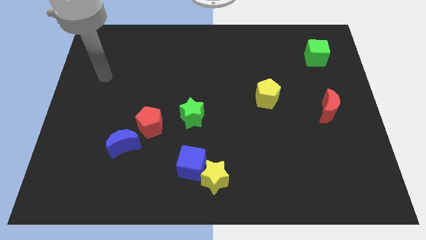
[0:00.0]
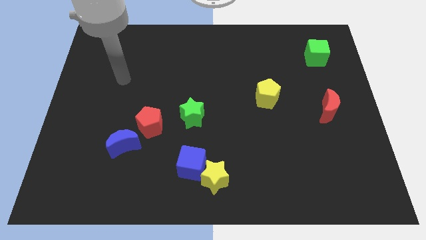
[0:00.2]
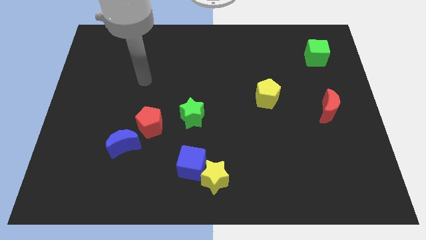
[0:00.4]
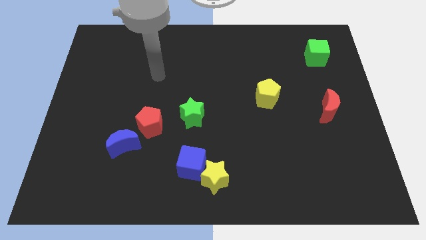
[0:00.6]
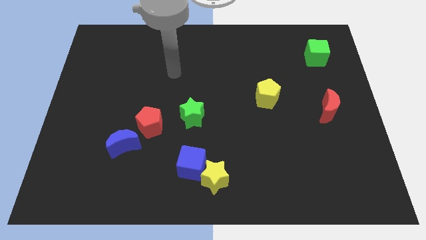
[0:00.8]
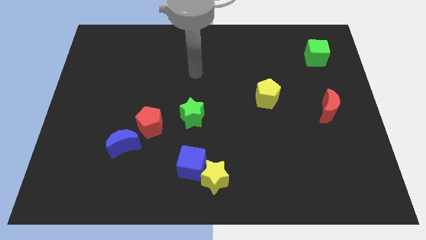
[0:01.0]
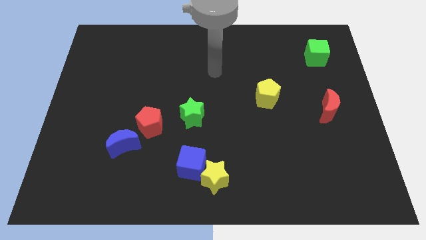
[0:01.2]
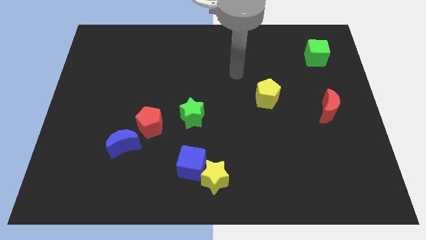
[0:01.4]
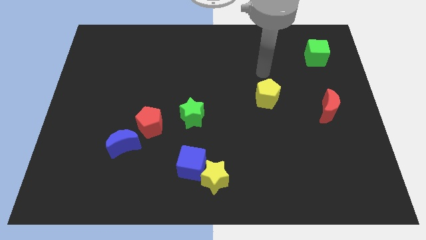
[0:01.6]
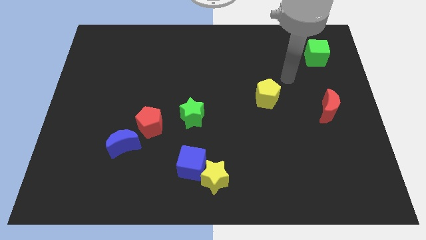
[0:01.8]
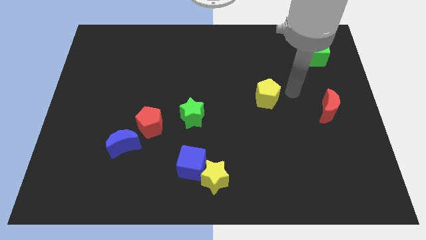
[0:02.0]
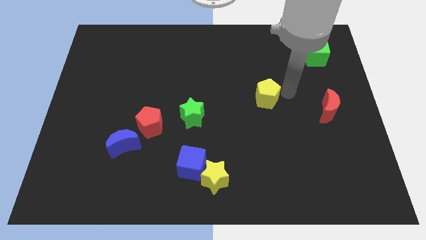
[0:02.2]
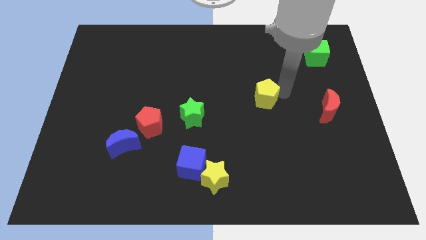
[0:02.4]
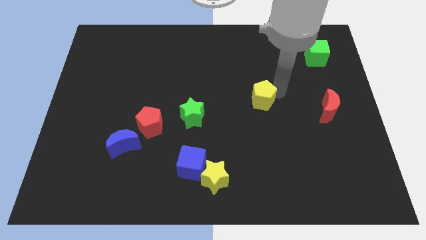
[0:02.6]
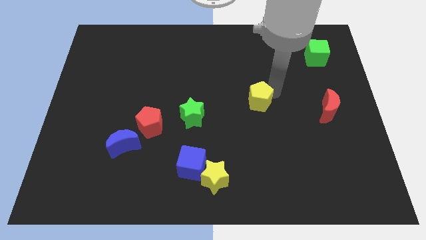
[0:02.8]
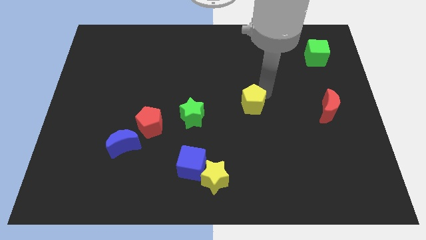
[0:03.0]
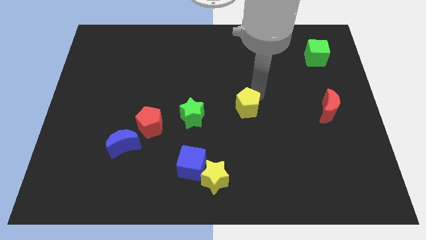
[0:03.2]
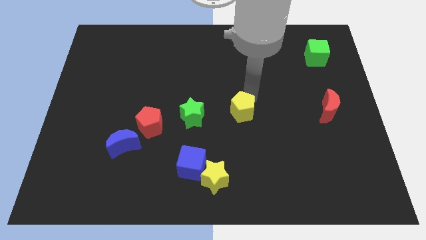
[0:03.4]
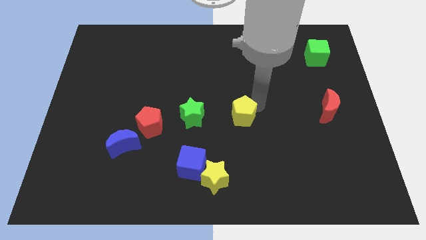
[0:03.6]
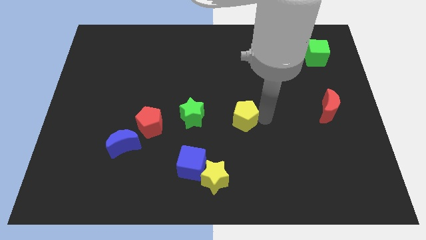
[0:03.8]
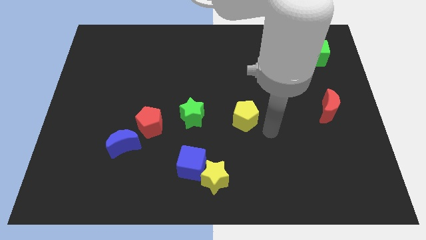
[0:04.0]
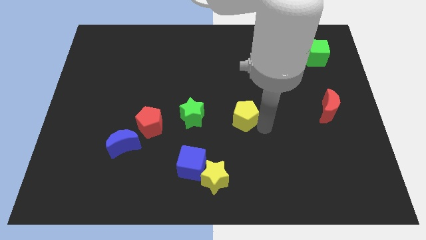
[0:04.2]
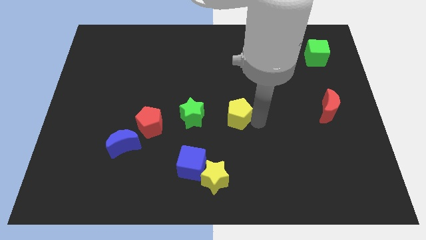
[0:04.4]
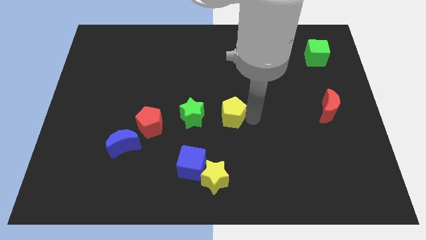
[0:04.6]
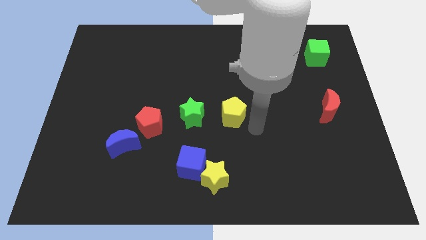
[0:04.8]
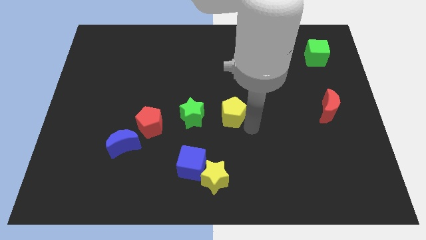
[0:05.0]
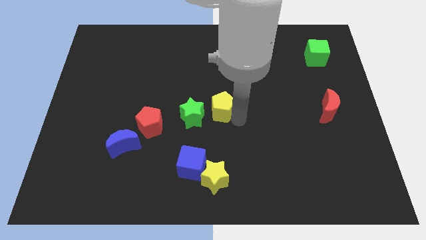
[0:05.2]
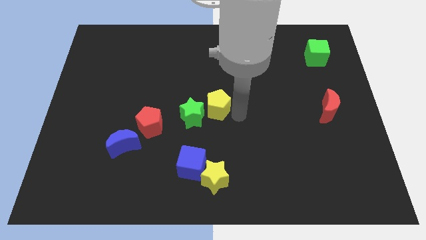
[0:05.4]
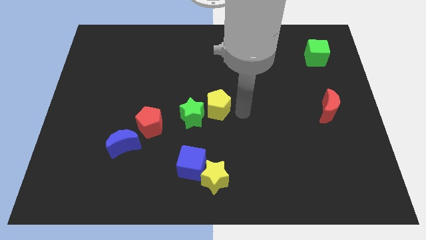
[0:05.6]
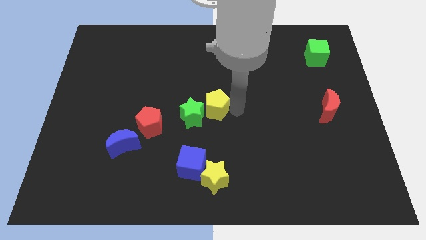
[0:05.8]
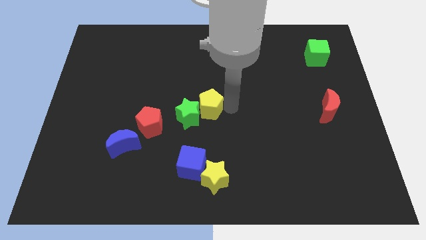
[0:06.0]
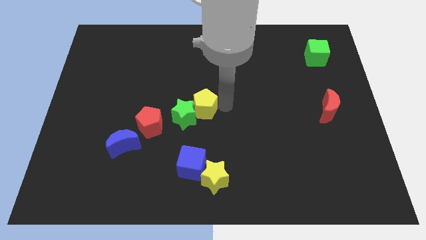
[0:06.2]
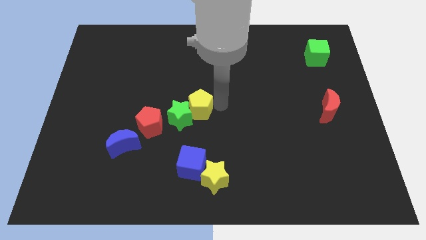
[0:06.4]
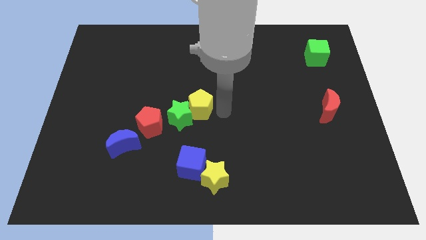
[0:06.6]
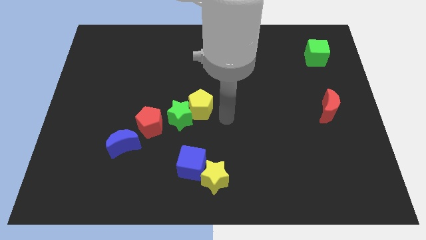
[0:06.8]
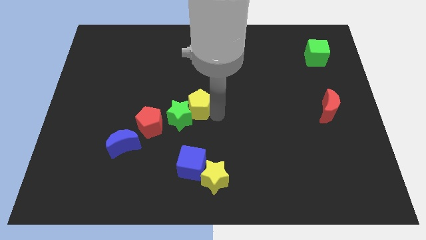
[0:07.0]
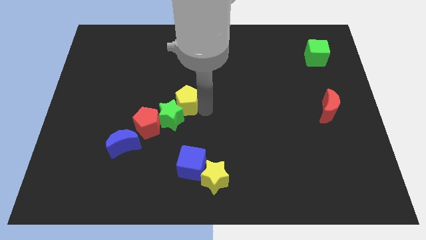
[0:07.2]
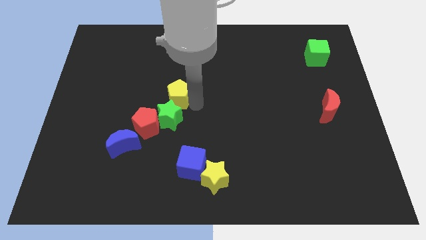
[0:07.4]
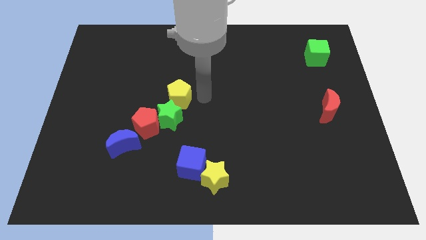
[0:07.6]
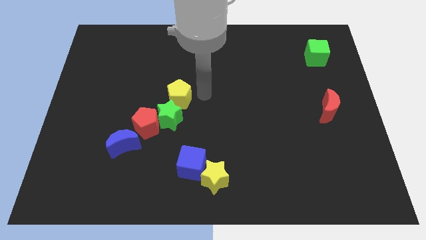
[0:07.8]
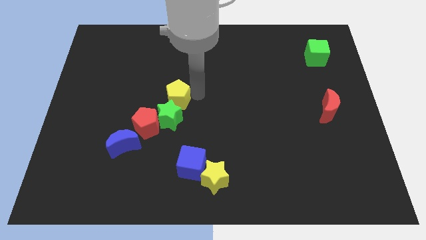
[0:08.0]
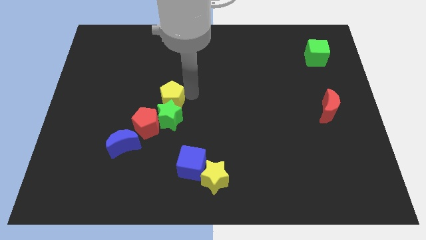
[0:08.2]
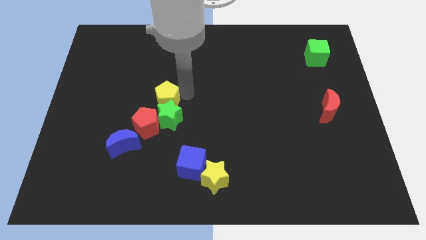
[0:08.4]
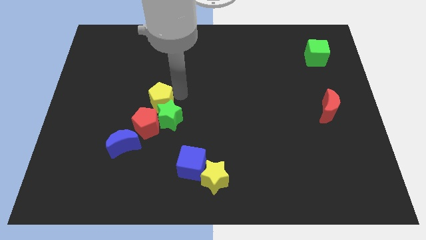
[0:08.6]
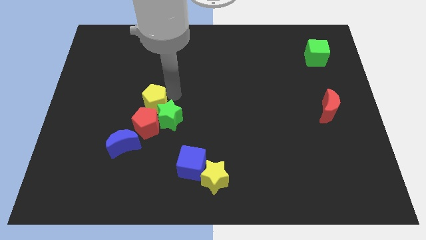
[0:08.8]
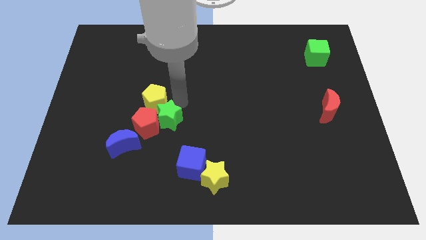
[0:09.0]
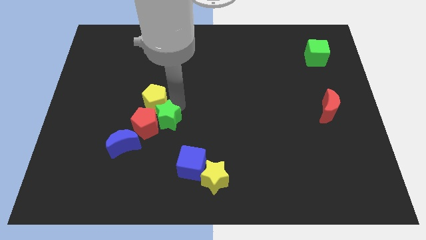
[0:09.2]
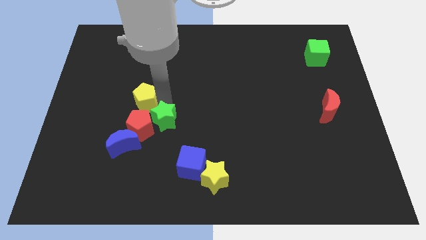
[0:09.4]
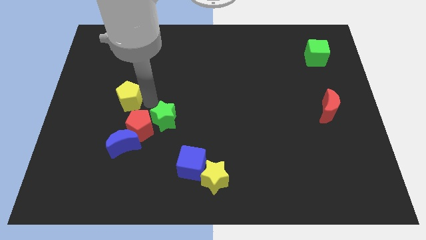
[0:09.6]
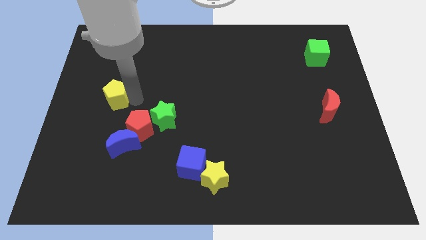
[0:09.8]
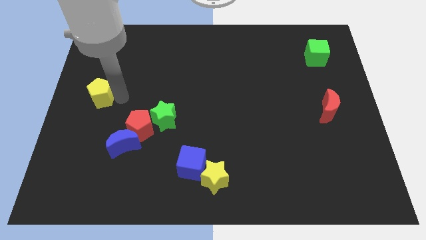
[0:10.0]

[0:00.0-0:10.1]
push the yellow pentagon to the center left
